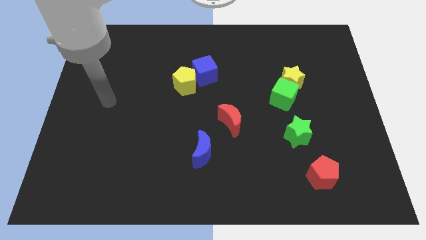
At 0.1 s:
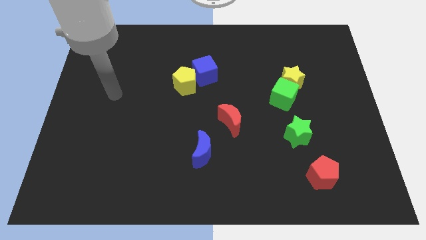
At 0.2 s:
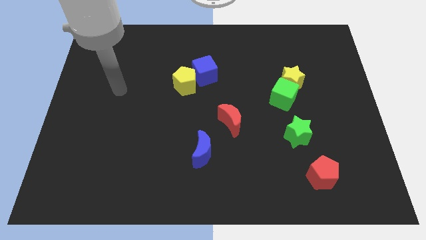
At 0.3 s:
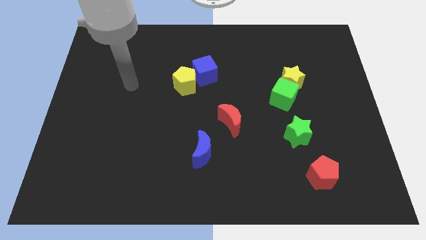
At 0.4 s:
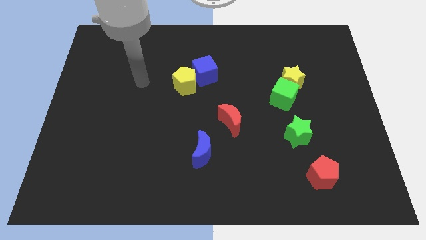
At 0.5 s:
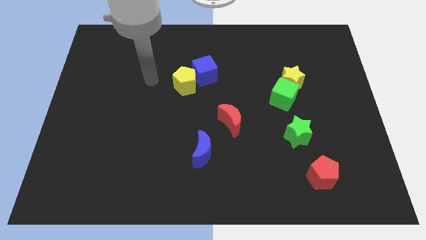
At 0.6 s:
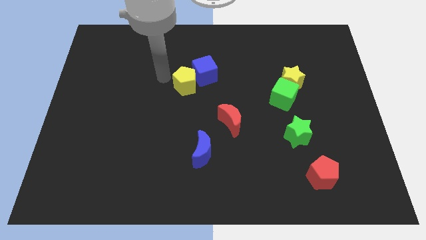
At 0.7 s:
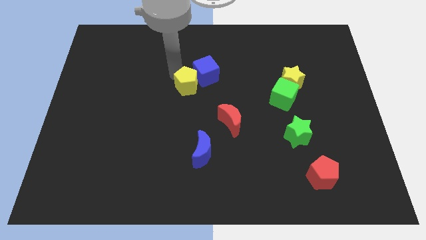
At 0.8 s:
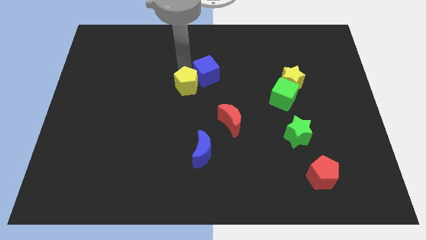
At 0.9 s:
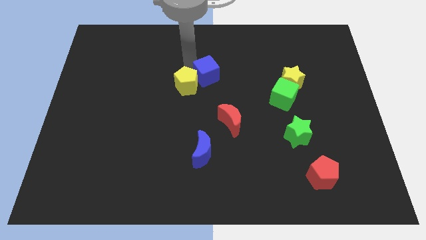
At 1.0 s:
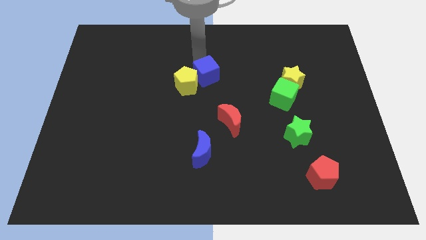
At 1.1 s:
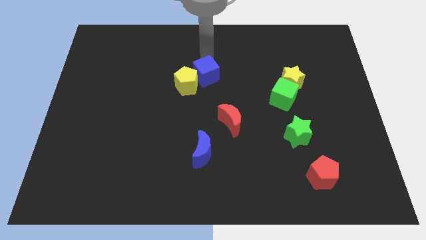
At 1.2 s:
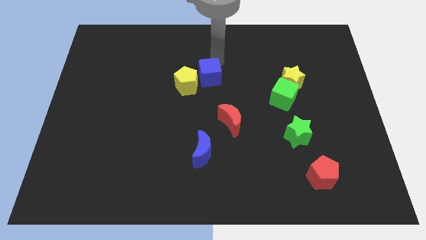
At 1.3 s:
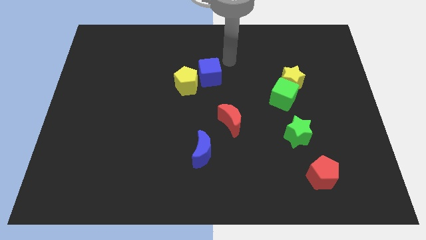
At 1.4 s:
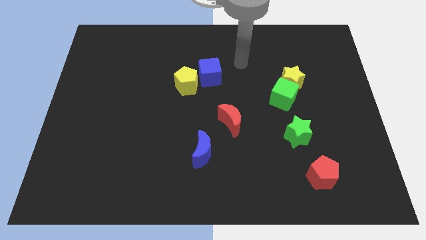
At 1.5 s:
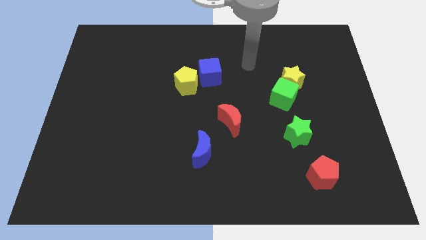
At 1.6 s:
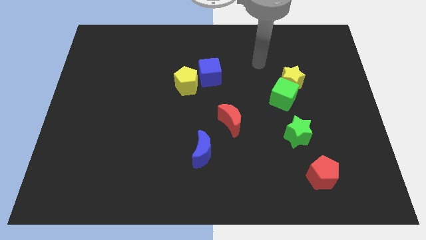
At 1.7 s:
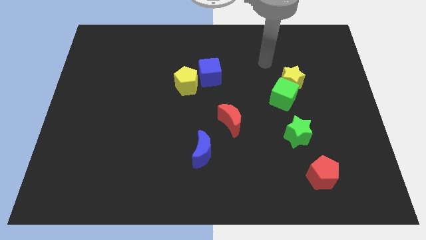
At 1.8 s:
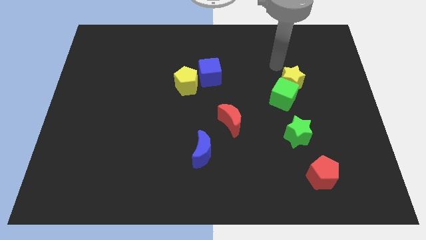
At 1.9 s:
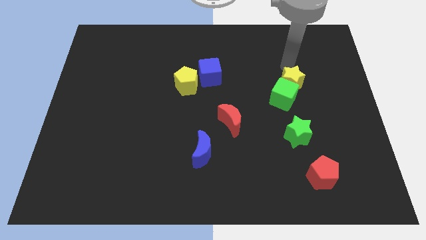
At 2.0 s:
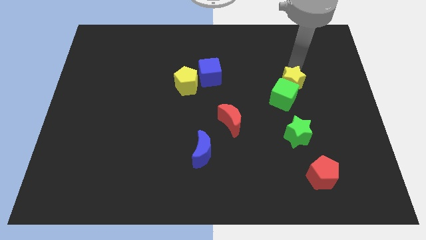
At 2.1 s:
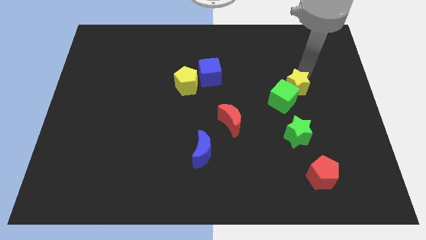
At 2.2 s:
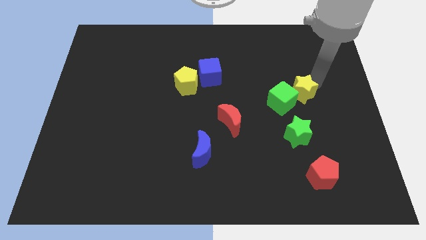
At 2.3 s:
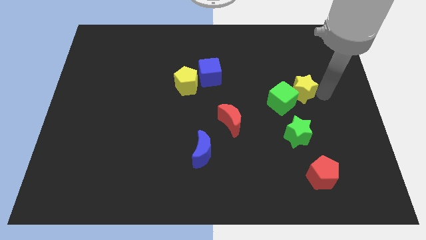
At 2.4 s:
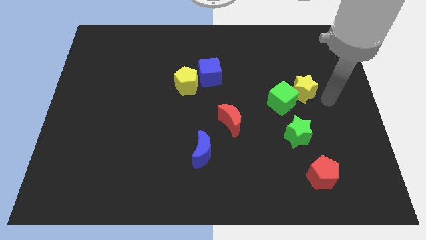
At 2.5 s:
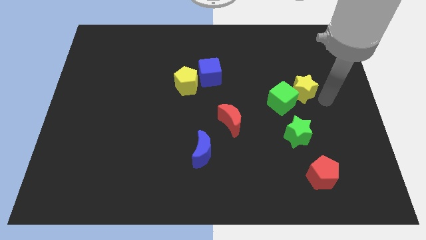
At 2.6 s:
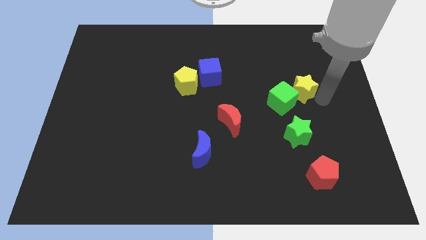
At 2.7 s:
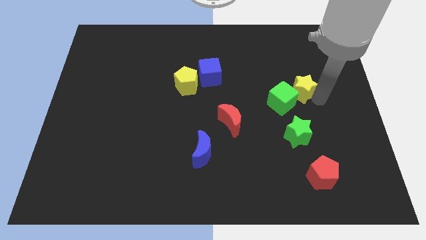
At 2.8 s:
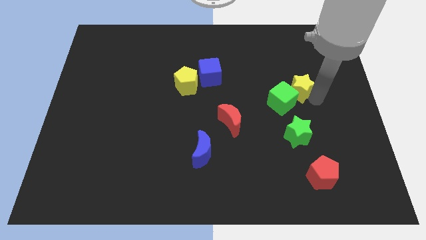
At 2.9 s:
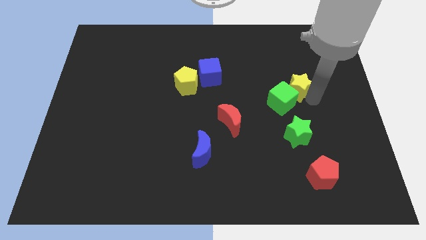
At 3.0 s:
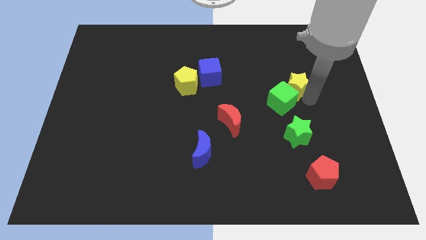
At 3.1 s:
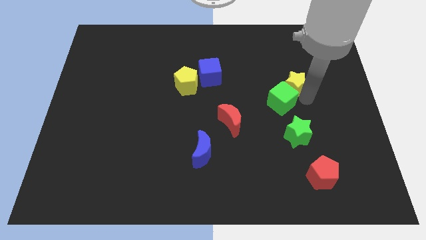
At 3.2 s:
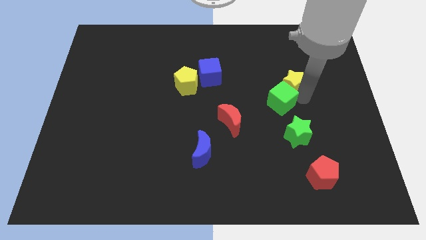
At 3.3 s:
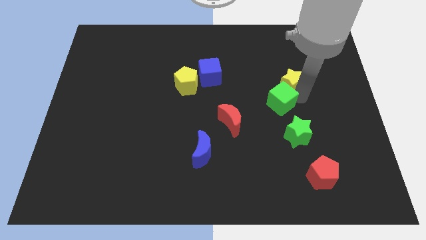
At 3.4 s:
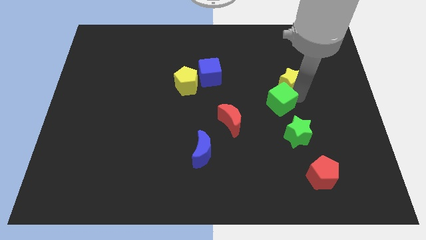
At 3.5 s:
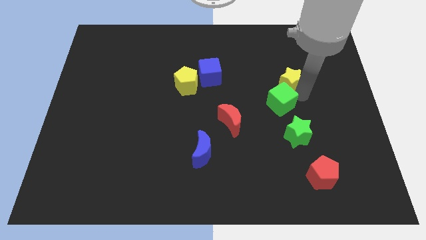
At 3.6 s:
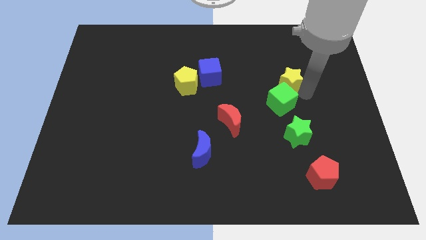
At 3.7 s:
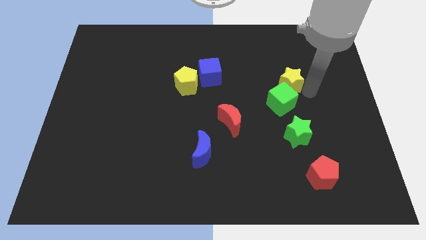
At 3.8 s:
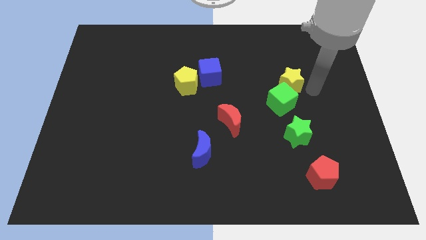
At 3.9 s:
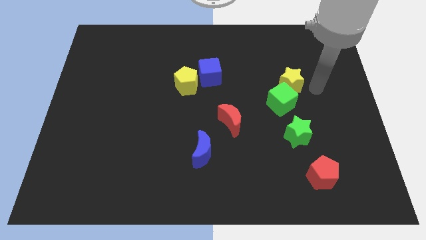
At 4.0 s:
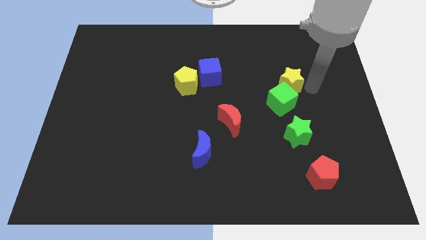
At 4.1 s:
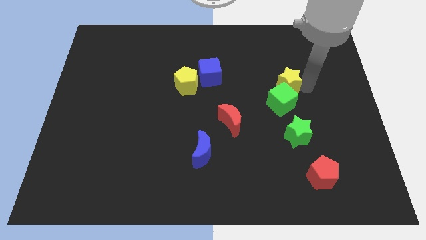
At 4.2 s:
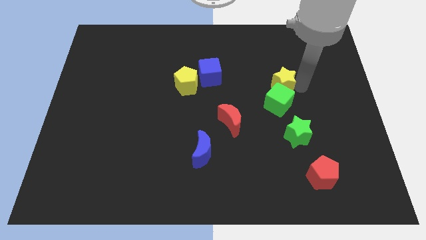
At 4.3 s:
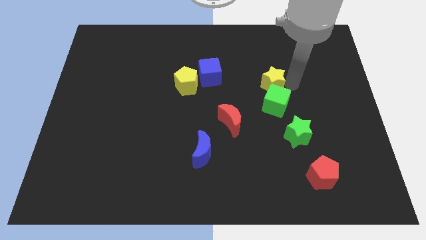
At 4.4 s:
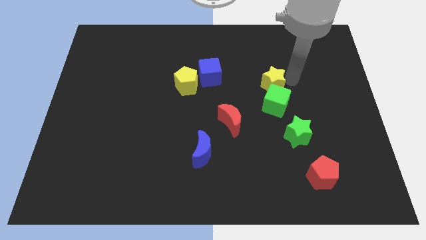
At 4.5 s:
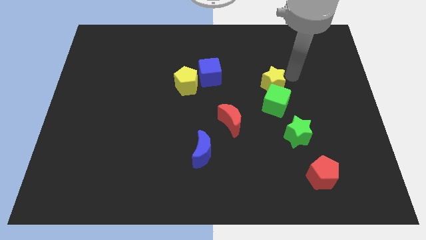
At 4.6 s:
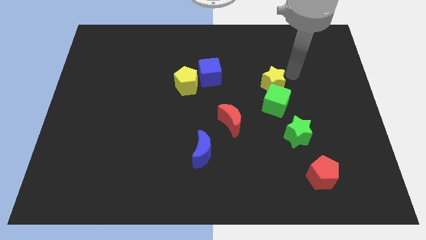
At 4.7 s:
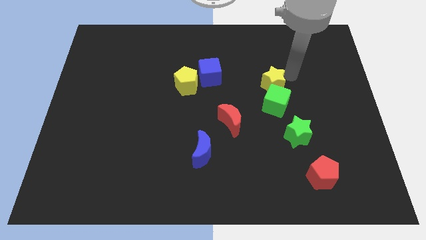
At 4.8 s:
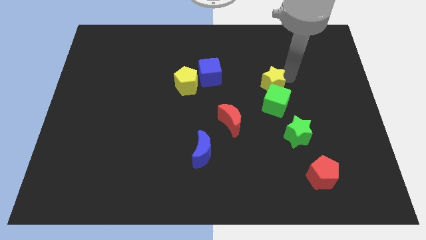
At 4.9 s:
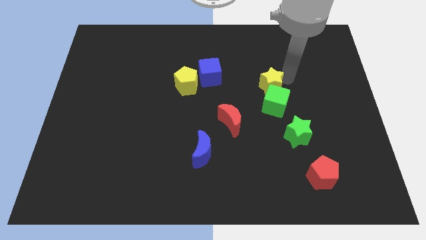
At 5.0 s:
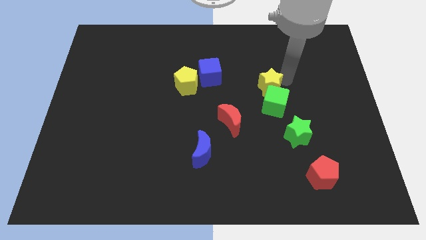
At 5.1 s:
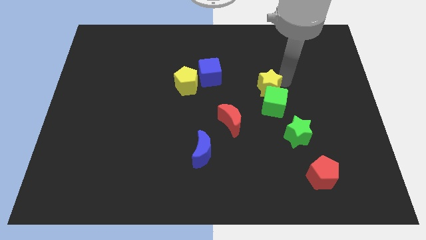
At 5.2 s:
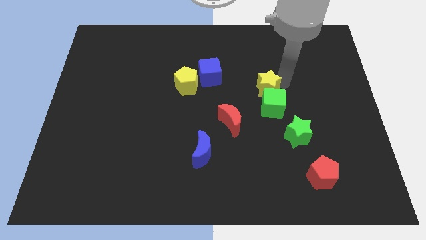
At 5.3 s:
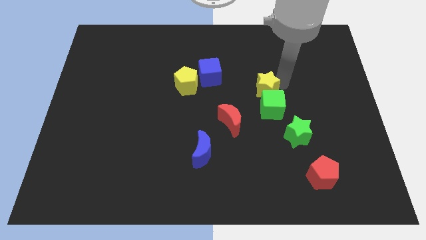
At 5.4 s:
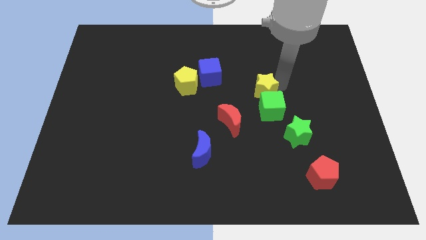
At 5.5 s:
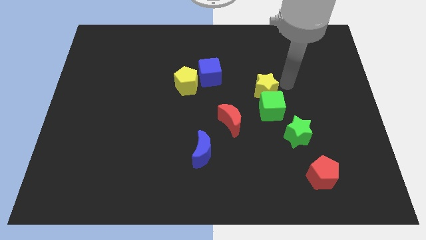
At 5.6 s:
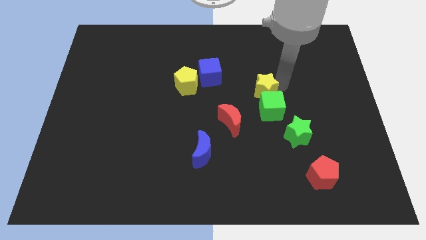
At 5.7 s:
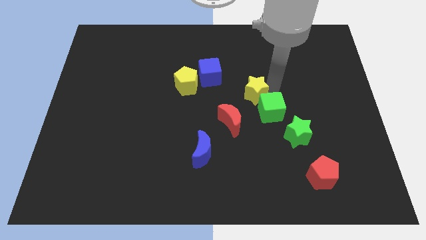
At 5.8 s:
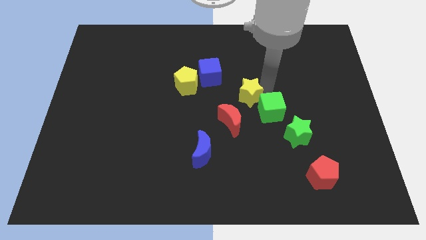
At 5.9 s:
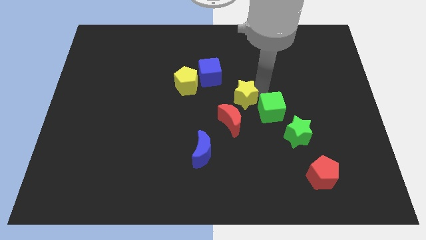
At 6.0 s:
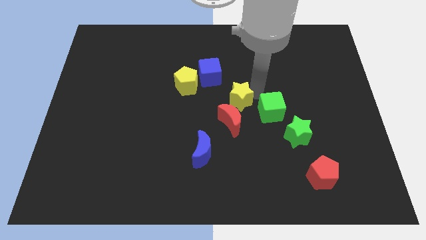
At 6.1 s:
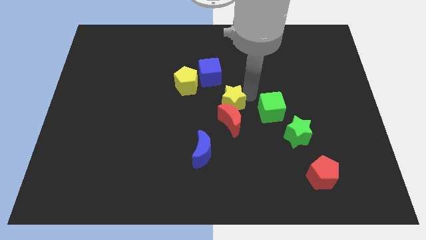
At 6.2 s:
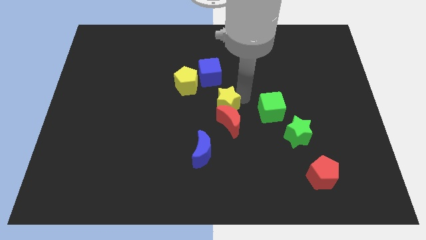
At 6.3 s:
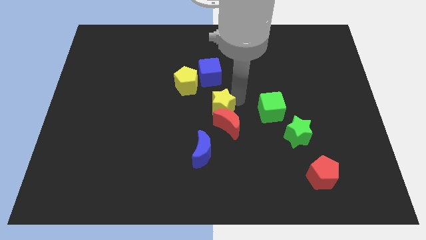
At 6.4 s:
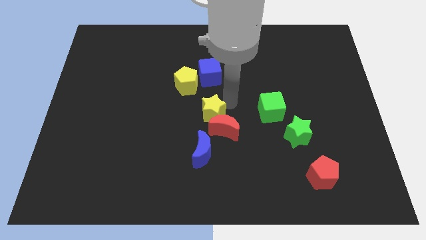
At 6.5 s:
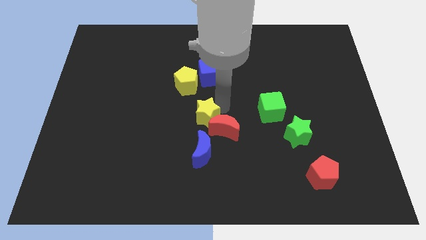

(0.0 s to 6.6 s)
put the yellow star just left of the red moon

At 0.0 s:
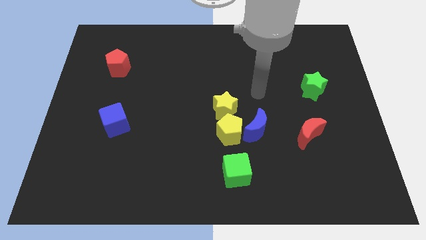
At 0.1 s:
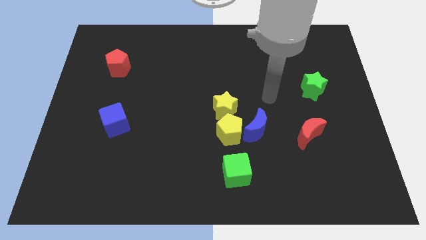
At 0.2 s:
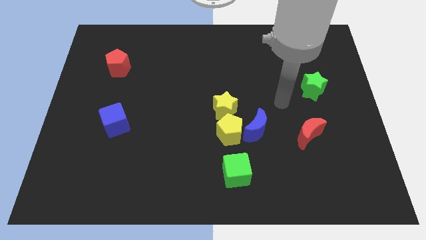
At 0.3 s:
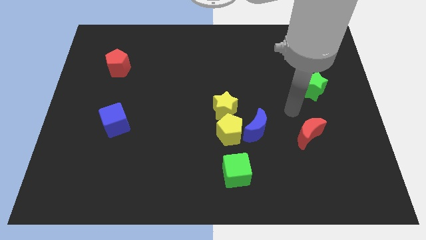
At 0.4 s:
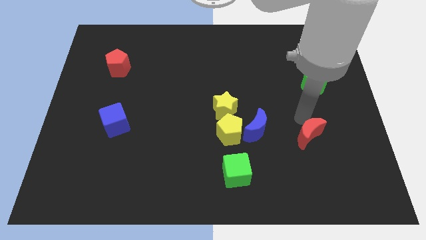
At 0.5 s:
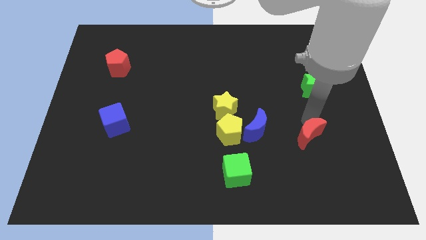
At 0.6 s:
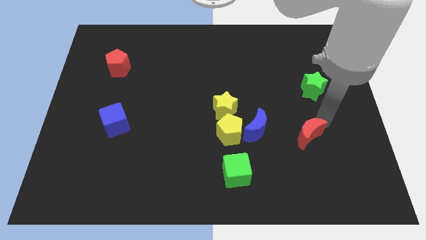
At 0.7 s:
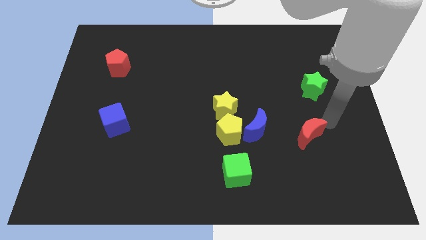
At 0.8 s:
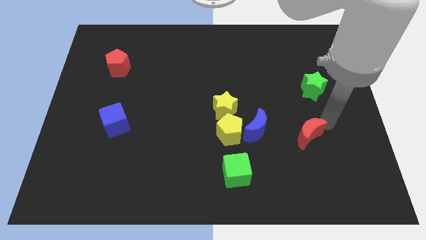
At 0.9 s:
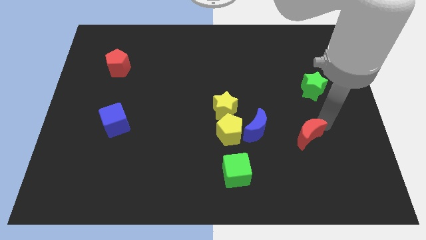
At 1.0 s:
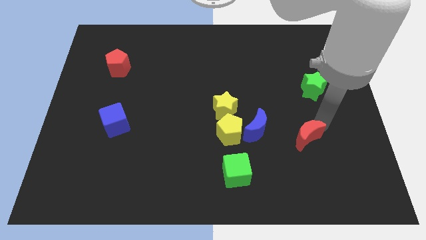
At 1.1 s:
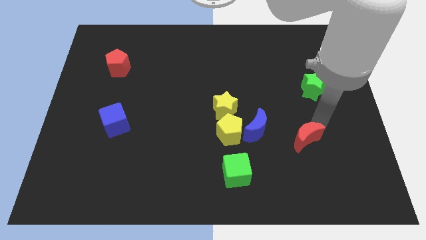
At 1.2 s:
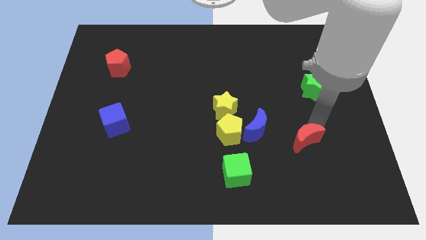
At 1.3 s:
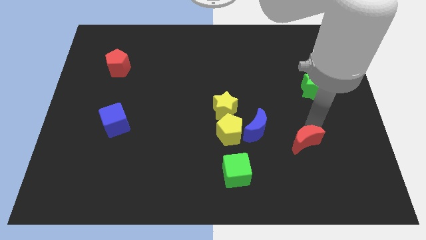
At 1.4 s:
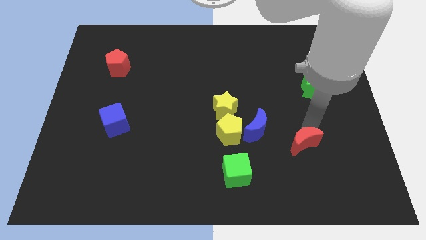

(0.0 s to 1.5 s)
put the red moon to the bottom right of the blue moon
